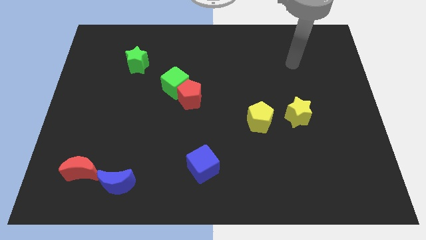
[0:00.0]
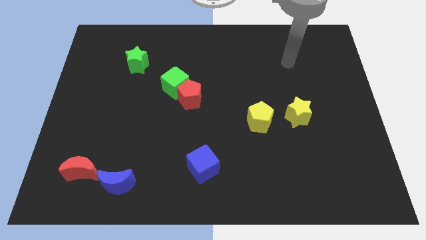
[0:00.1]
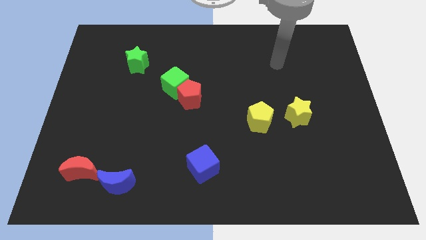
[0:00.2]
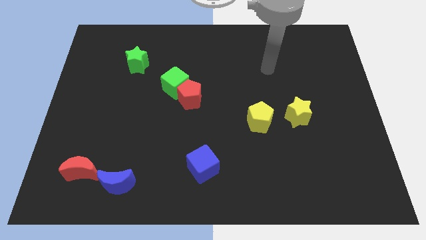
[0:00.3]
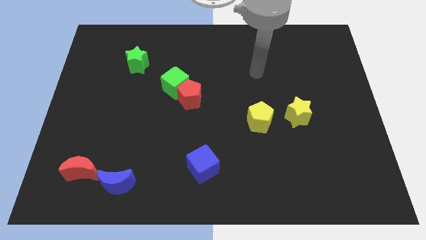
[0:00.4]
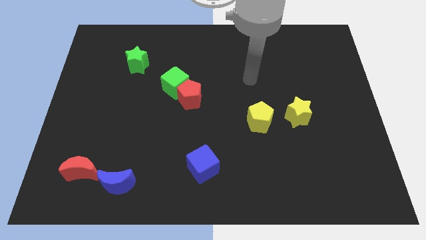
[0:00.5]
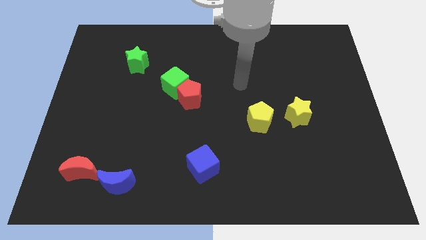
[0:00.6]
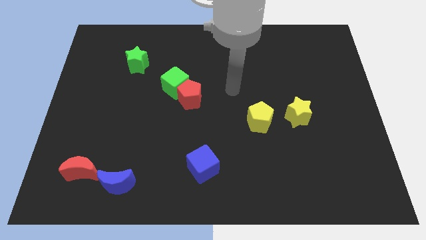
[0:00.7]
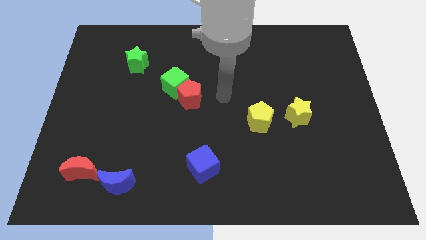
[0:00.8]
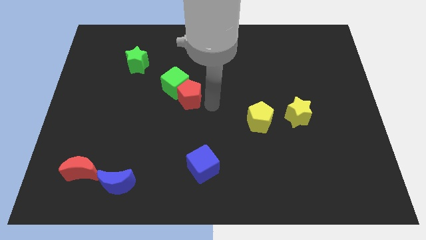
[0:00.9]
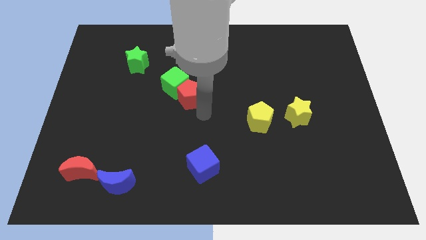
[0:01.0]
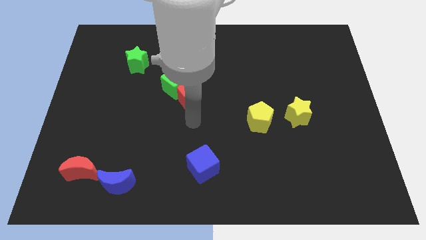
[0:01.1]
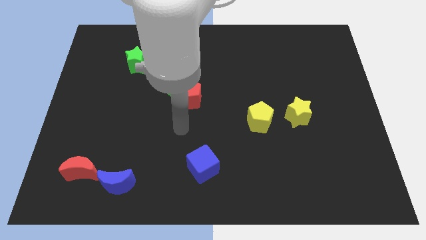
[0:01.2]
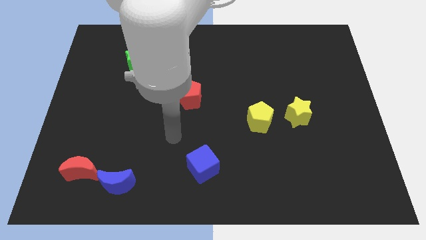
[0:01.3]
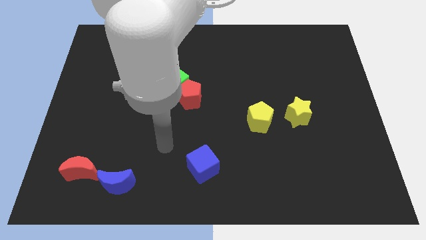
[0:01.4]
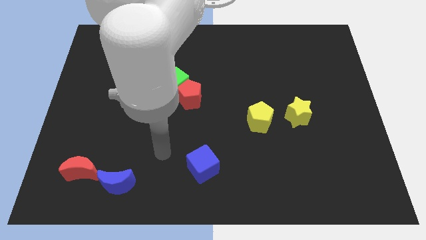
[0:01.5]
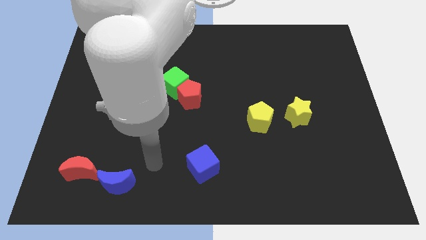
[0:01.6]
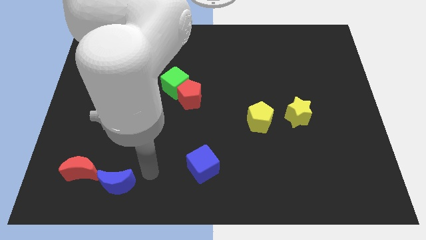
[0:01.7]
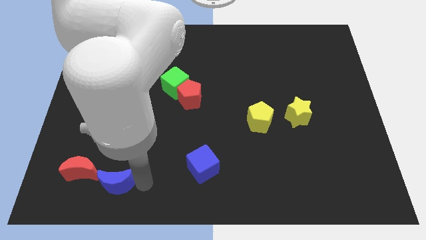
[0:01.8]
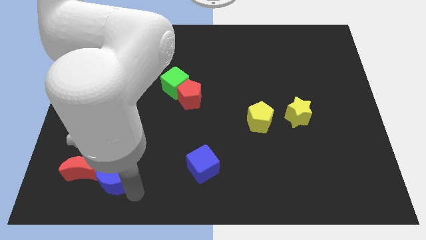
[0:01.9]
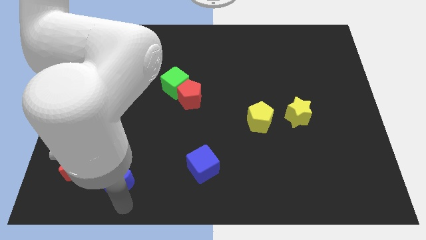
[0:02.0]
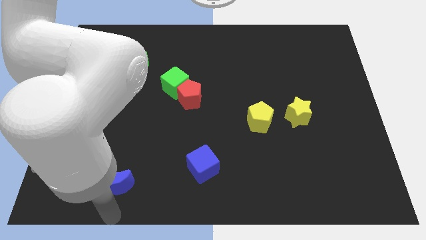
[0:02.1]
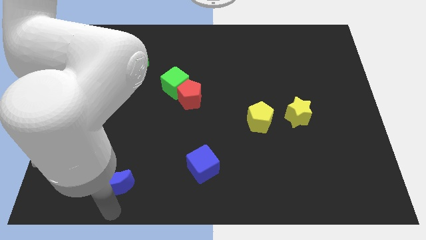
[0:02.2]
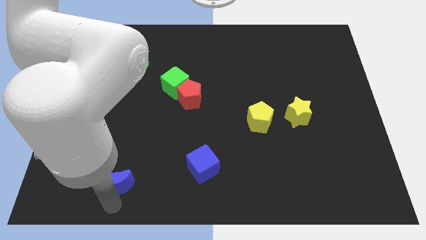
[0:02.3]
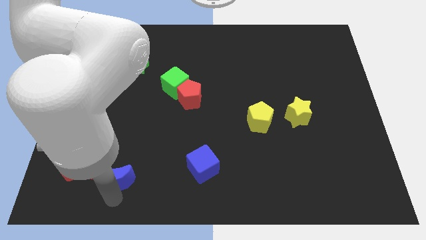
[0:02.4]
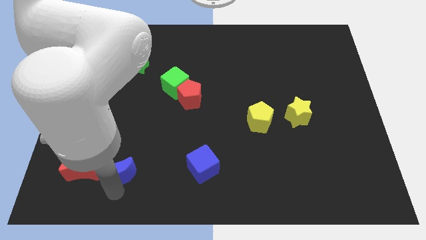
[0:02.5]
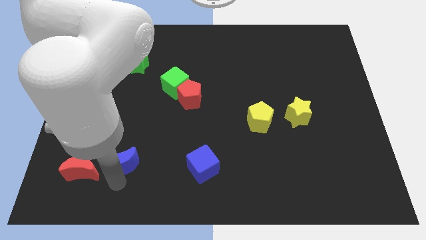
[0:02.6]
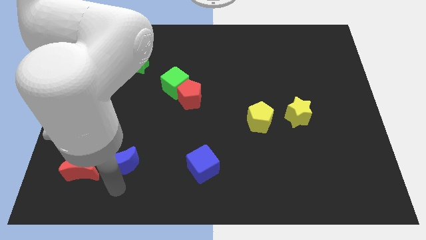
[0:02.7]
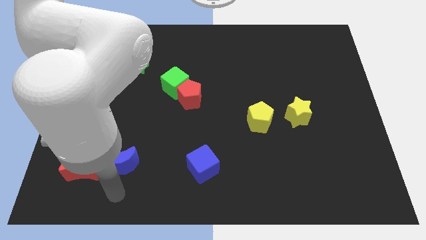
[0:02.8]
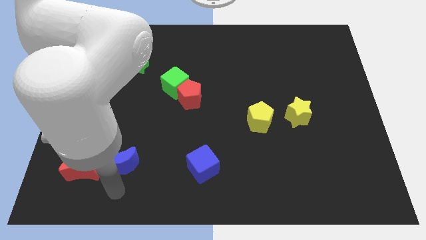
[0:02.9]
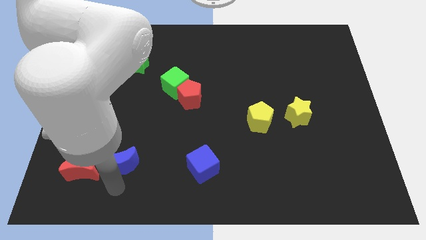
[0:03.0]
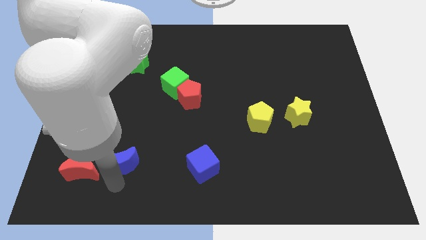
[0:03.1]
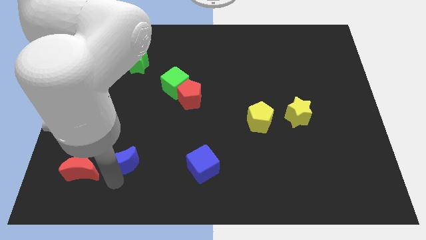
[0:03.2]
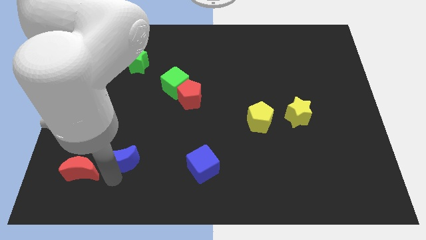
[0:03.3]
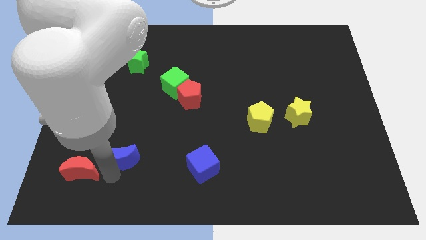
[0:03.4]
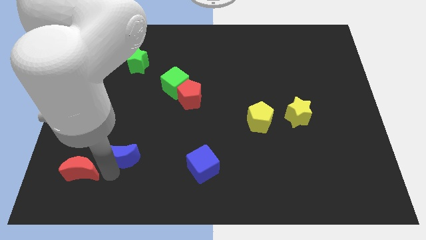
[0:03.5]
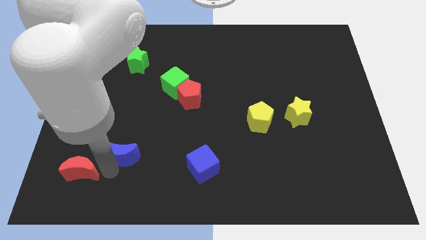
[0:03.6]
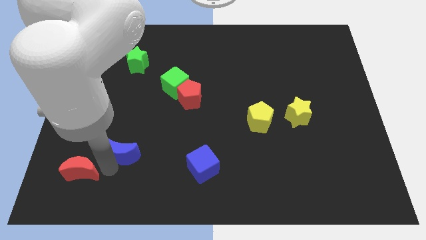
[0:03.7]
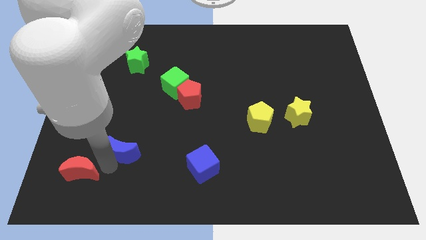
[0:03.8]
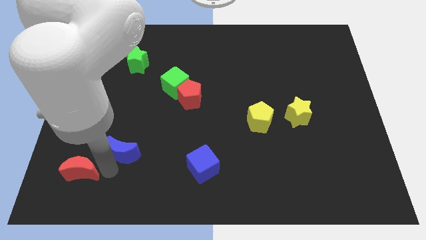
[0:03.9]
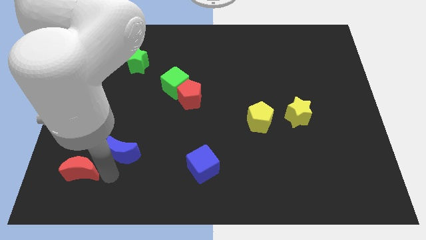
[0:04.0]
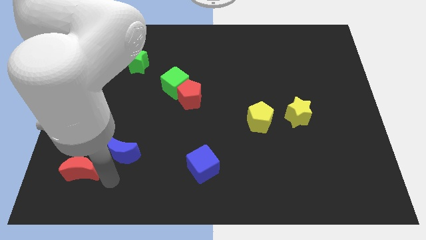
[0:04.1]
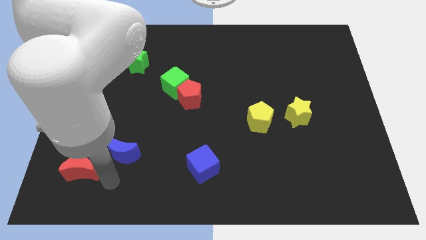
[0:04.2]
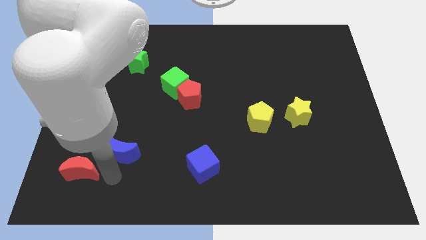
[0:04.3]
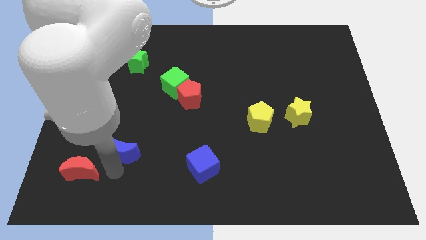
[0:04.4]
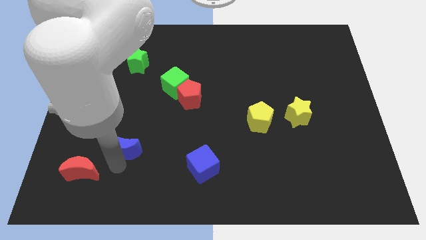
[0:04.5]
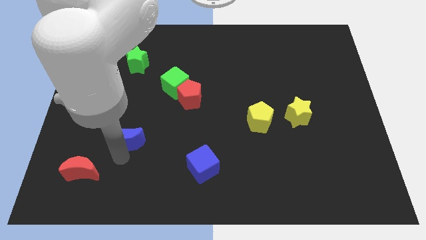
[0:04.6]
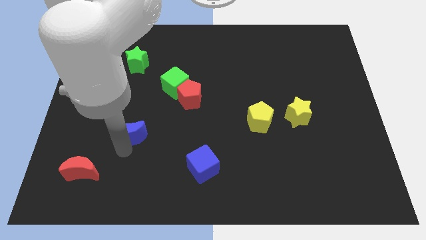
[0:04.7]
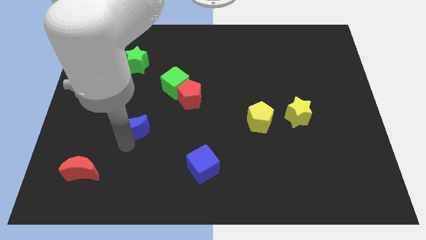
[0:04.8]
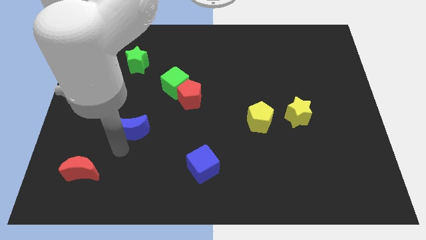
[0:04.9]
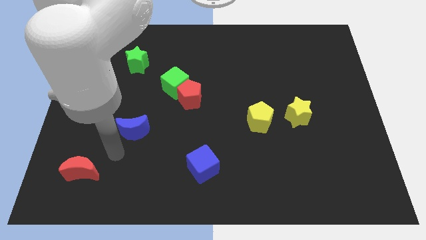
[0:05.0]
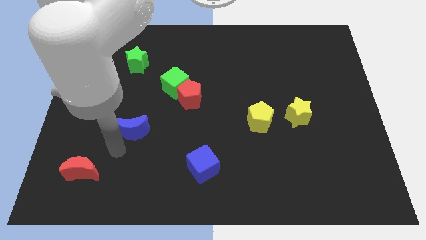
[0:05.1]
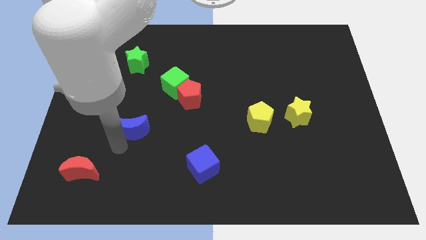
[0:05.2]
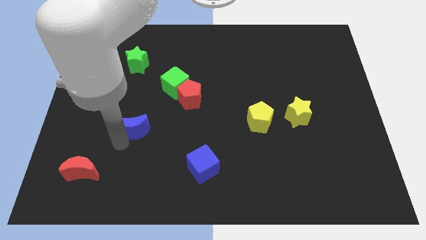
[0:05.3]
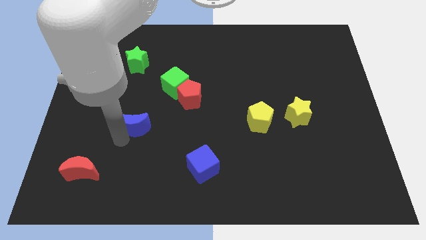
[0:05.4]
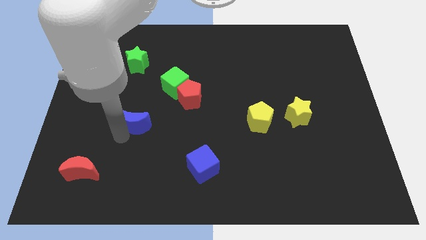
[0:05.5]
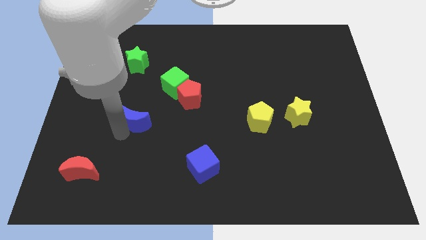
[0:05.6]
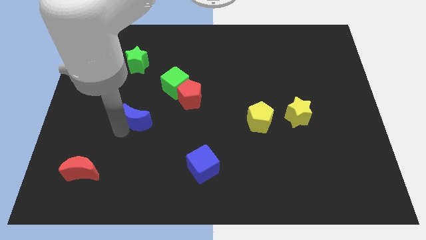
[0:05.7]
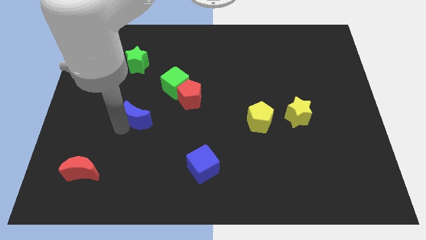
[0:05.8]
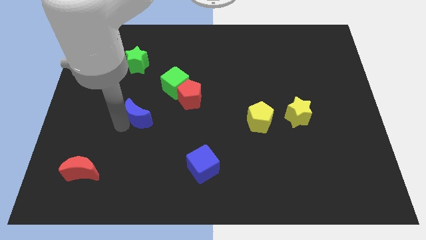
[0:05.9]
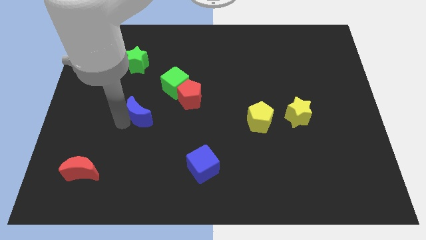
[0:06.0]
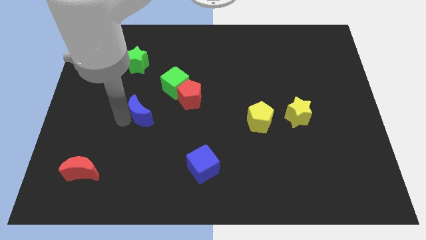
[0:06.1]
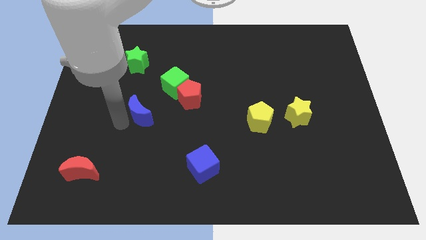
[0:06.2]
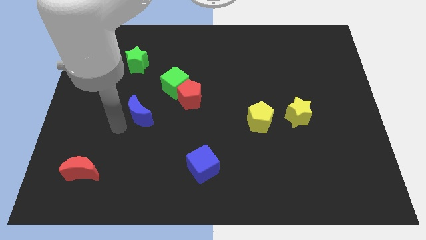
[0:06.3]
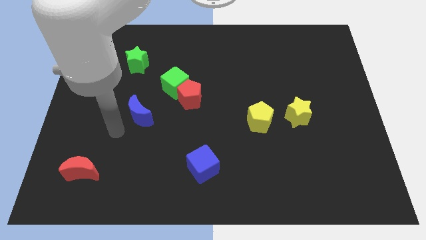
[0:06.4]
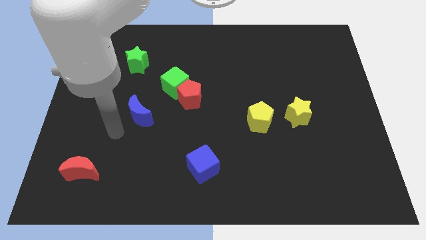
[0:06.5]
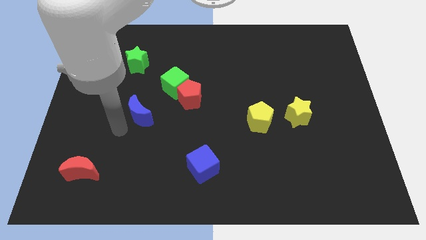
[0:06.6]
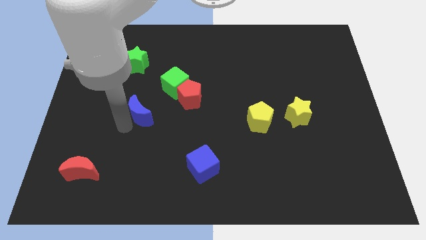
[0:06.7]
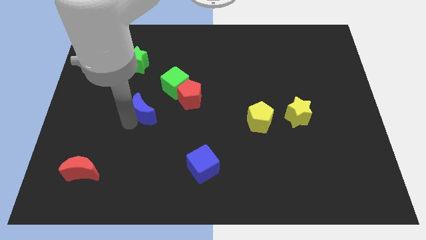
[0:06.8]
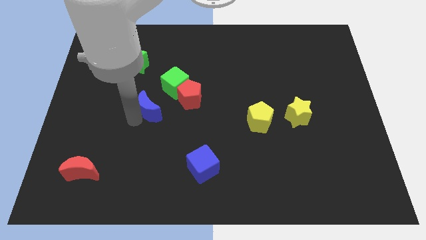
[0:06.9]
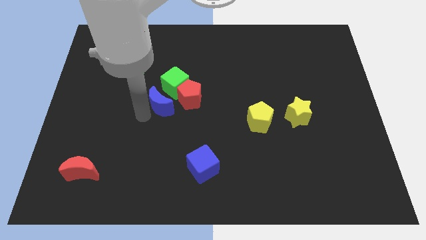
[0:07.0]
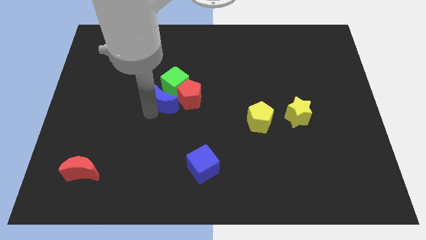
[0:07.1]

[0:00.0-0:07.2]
slide the blue moon next to the green cube

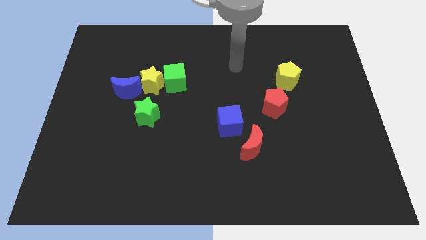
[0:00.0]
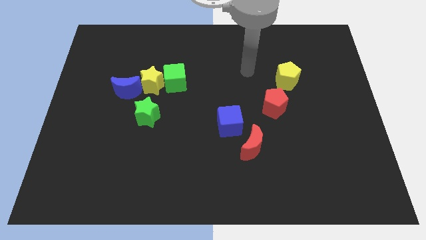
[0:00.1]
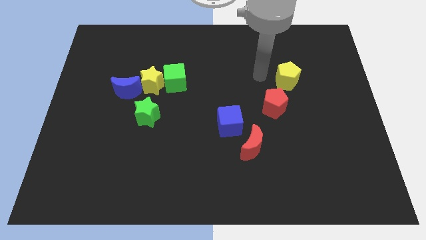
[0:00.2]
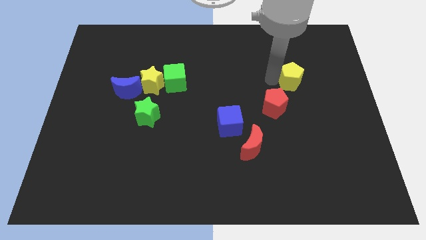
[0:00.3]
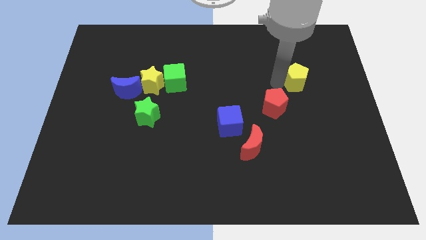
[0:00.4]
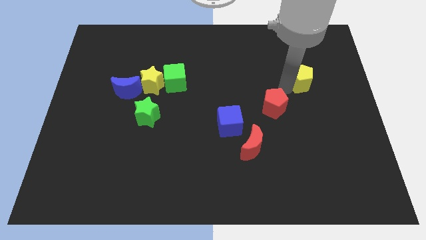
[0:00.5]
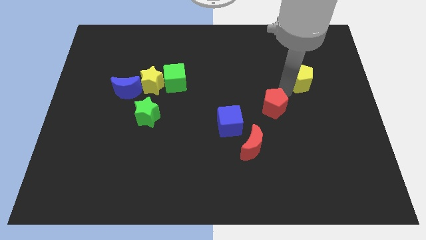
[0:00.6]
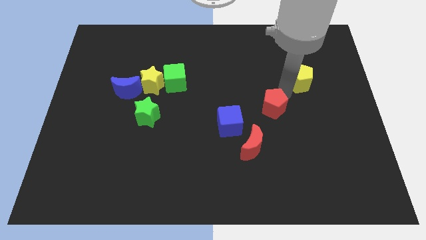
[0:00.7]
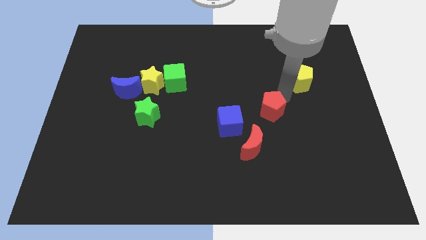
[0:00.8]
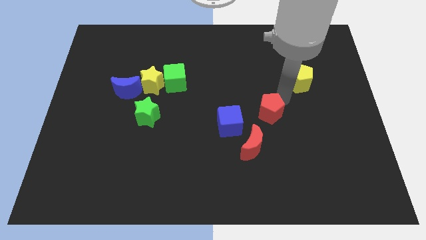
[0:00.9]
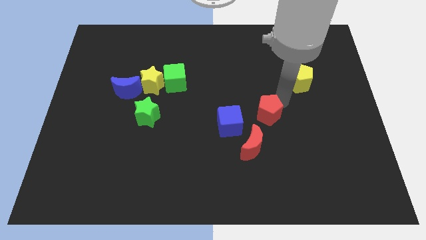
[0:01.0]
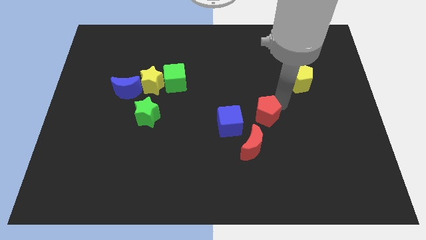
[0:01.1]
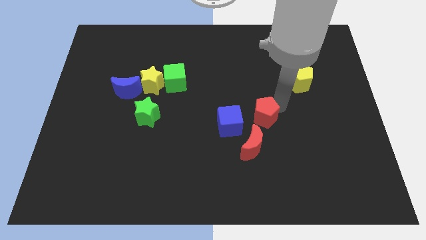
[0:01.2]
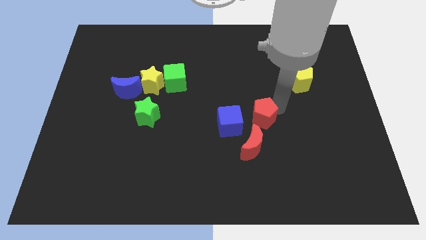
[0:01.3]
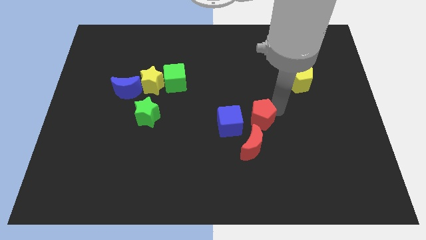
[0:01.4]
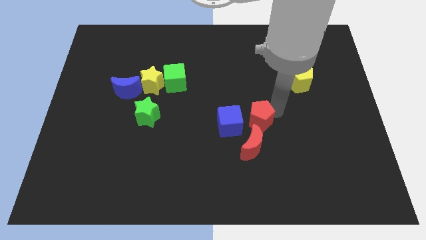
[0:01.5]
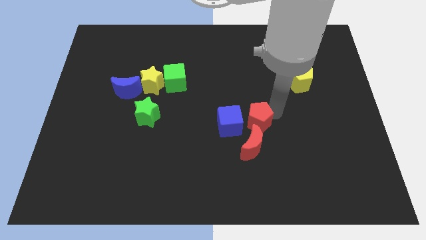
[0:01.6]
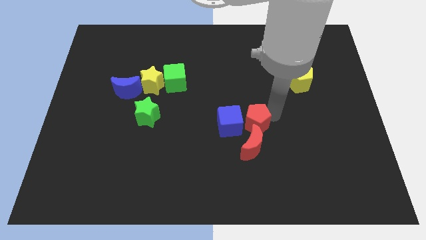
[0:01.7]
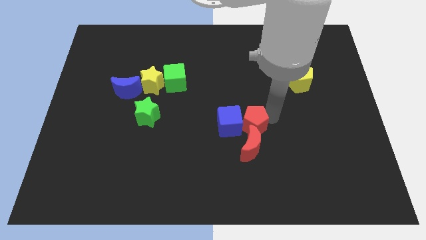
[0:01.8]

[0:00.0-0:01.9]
slide the red pentagon next to the red moon
